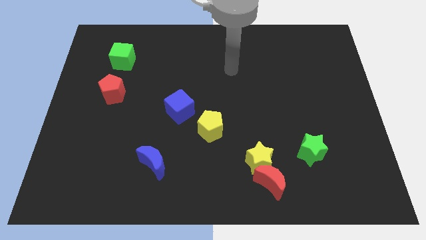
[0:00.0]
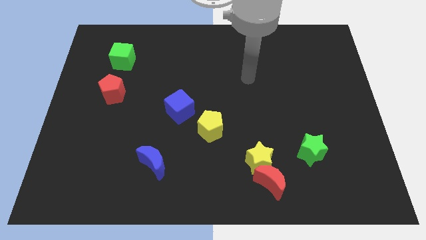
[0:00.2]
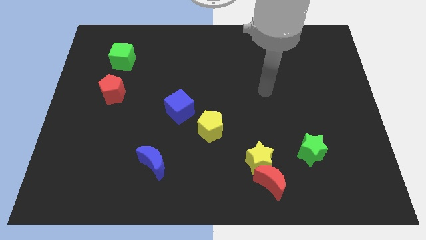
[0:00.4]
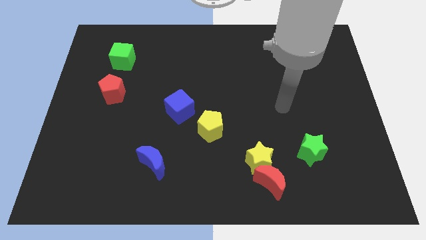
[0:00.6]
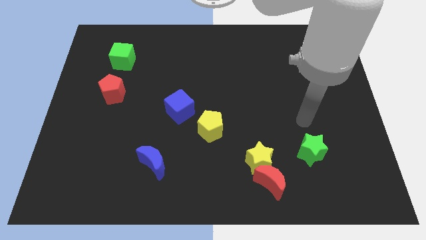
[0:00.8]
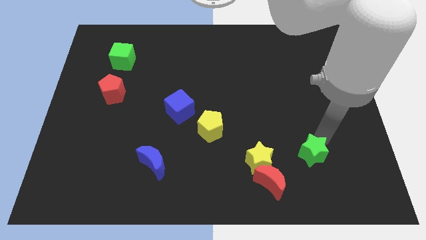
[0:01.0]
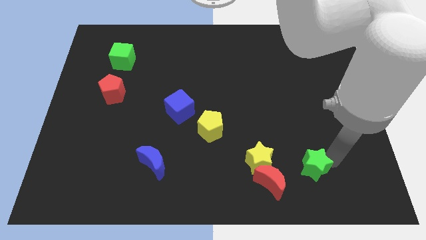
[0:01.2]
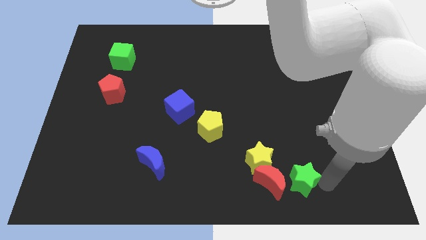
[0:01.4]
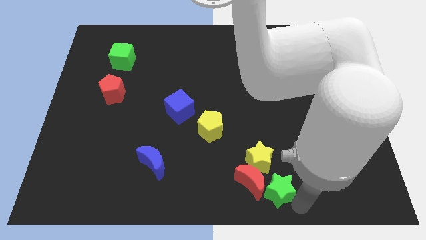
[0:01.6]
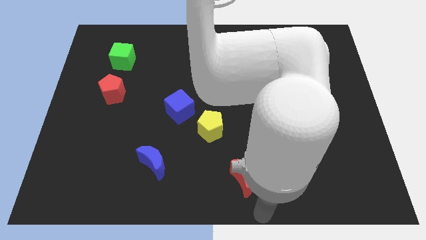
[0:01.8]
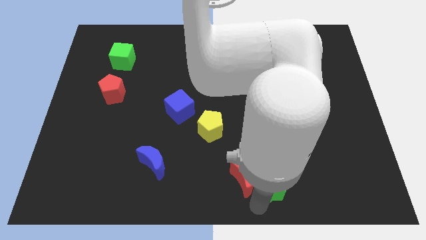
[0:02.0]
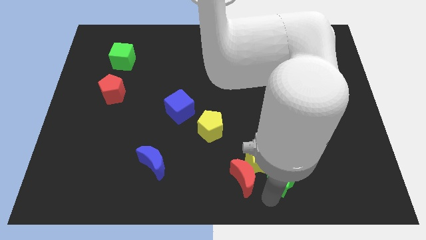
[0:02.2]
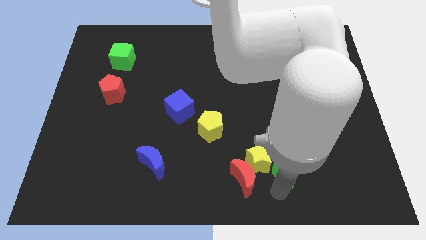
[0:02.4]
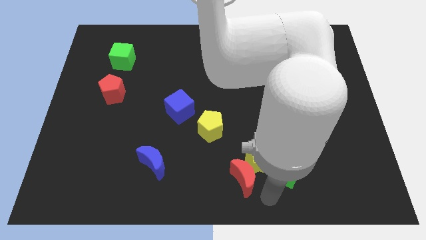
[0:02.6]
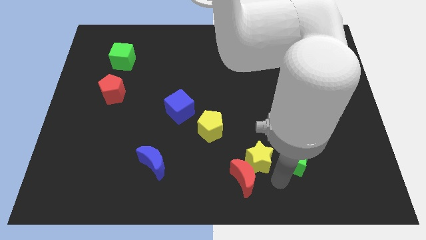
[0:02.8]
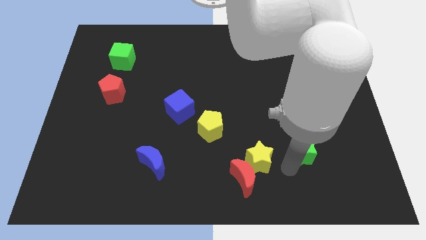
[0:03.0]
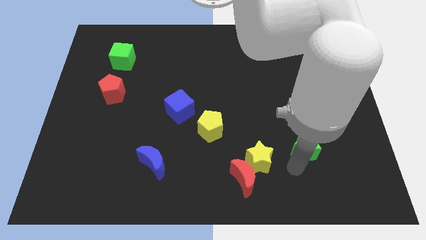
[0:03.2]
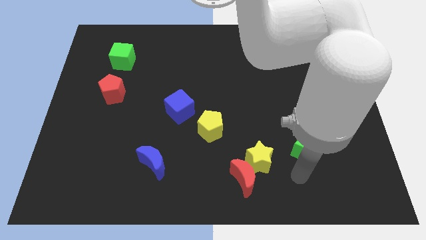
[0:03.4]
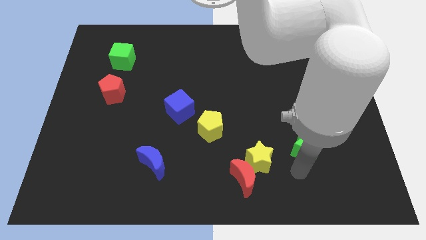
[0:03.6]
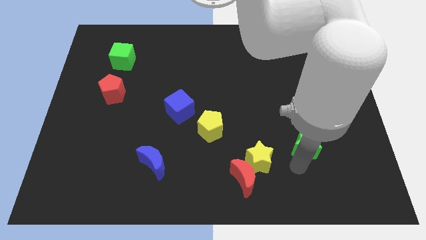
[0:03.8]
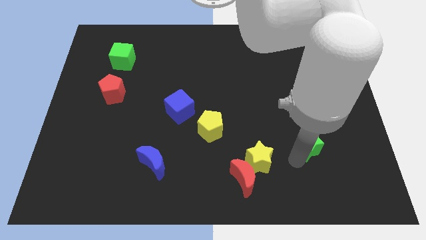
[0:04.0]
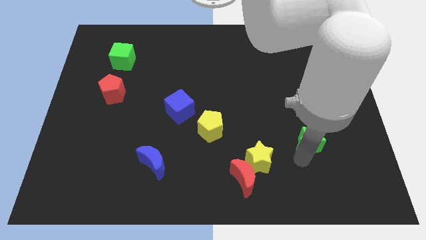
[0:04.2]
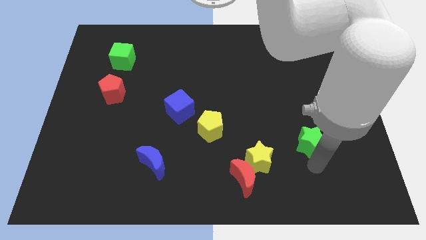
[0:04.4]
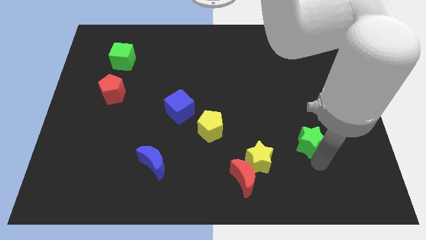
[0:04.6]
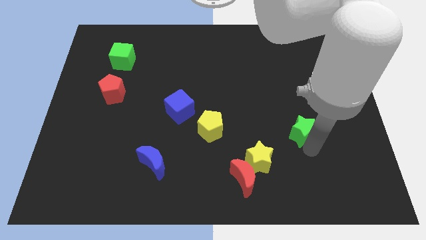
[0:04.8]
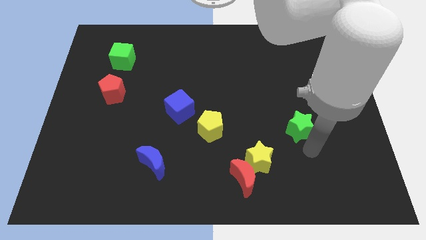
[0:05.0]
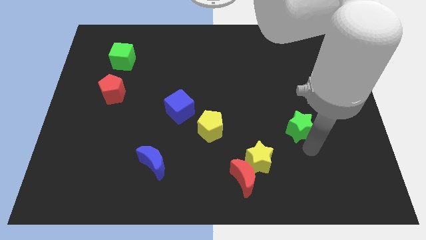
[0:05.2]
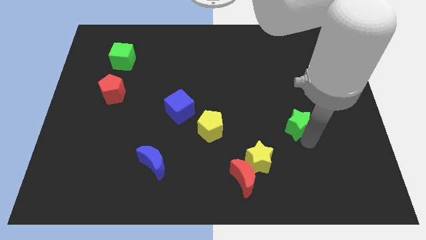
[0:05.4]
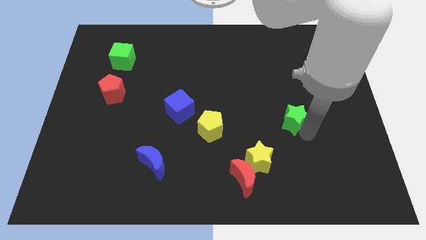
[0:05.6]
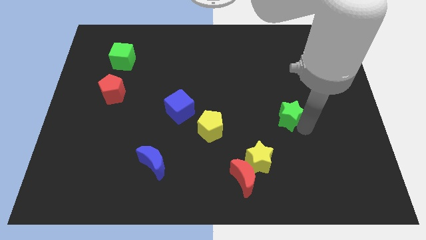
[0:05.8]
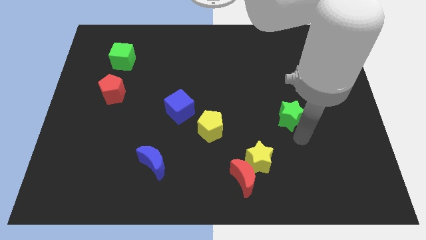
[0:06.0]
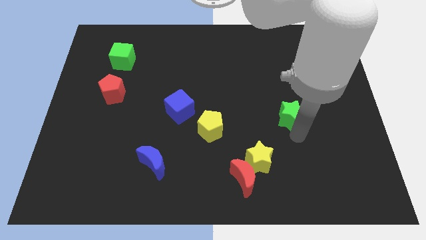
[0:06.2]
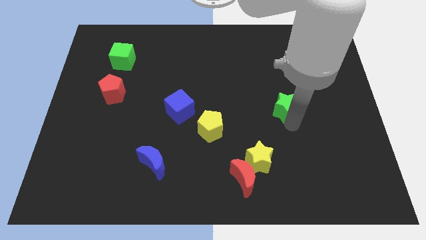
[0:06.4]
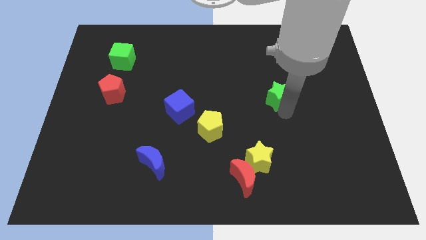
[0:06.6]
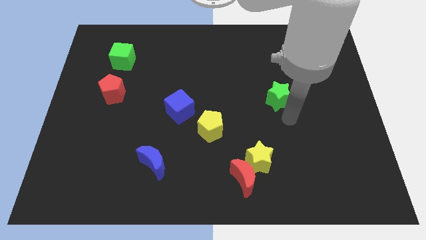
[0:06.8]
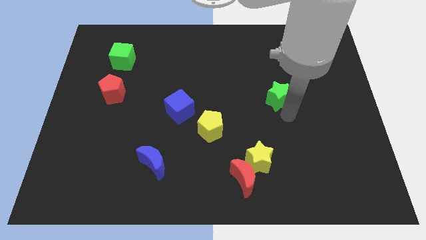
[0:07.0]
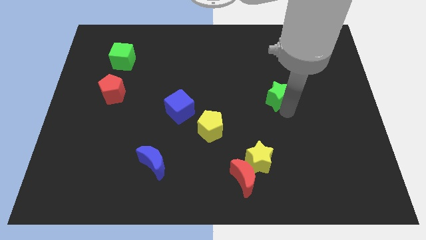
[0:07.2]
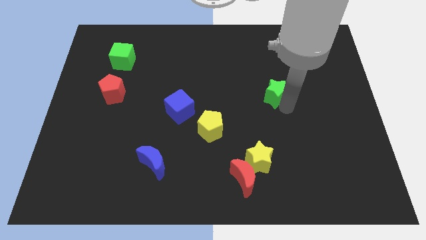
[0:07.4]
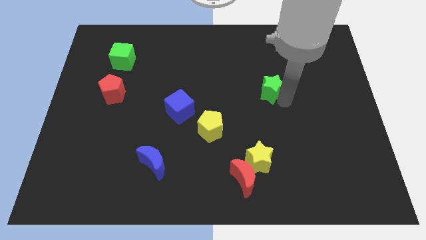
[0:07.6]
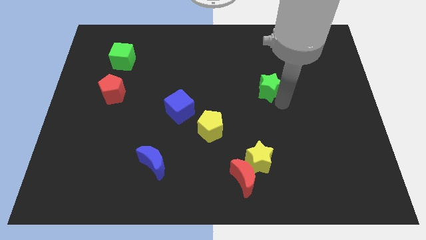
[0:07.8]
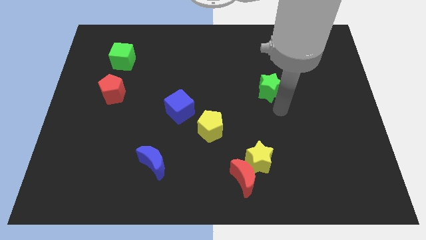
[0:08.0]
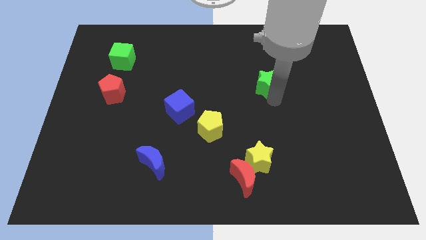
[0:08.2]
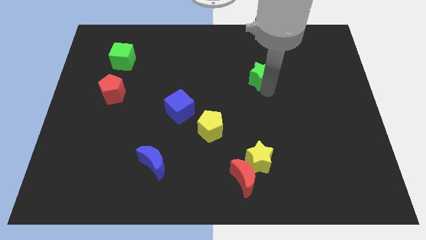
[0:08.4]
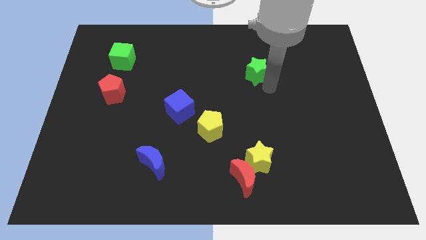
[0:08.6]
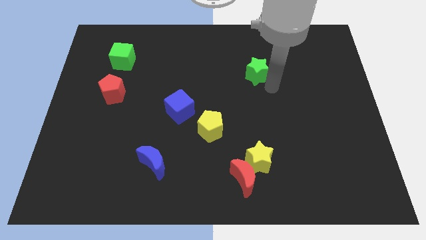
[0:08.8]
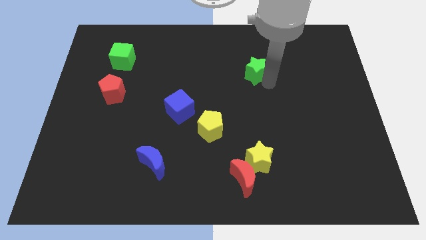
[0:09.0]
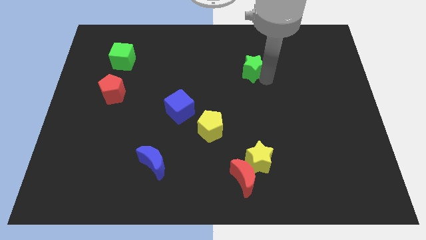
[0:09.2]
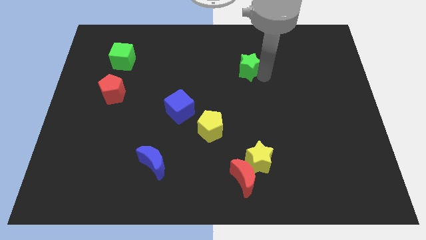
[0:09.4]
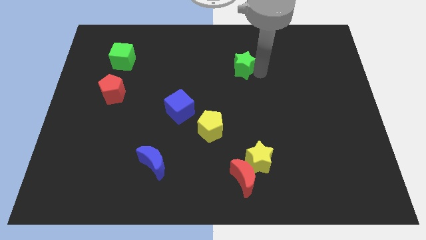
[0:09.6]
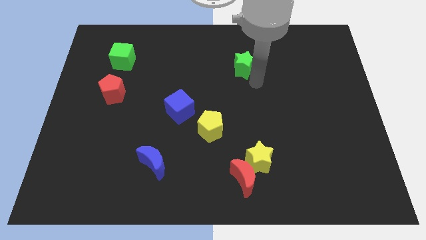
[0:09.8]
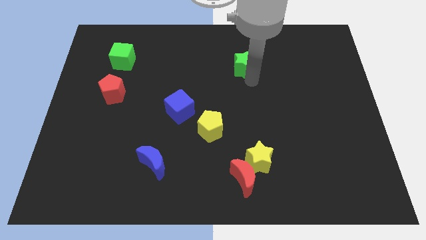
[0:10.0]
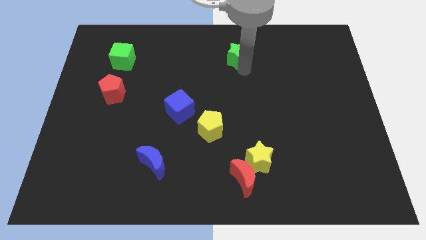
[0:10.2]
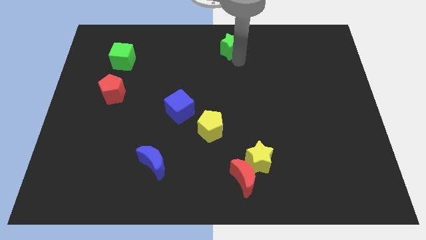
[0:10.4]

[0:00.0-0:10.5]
move the green star to the towards your base

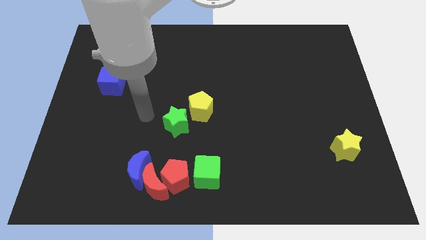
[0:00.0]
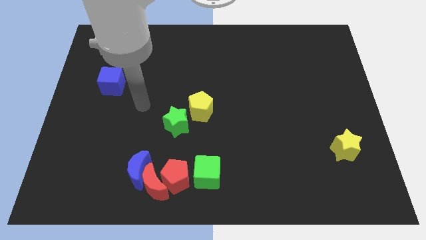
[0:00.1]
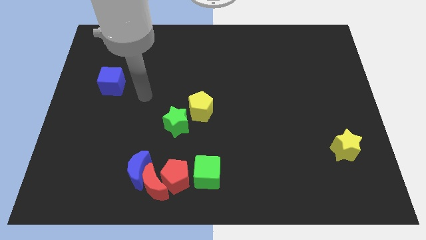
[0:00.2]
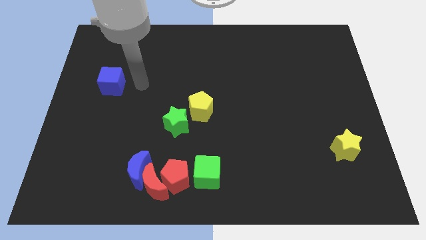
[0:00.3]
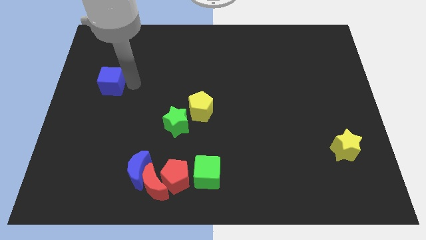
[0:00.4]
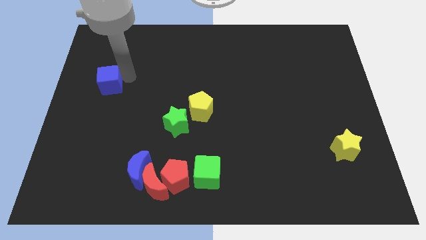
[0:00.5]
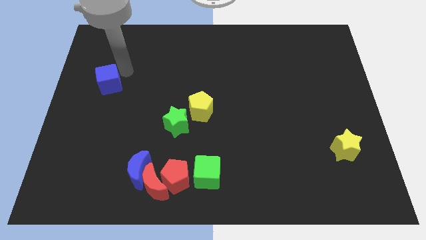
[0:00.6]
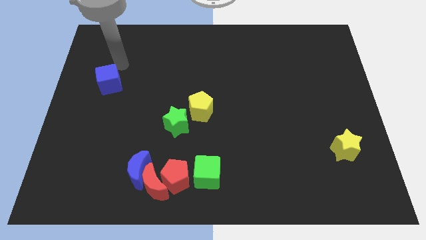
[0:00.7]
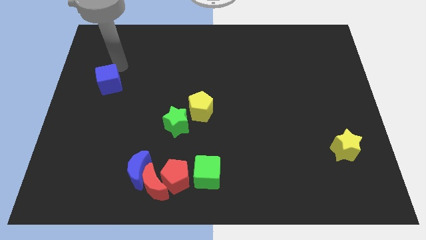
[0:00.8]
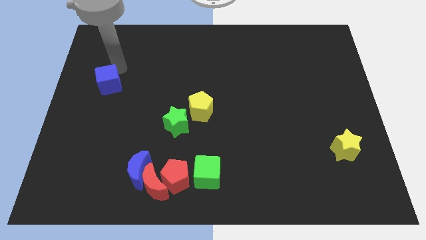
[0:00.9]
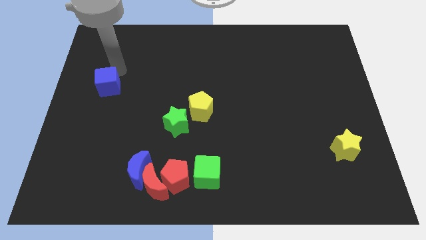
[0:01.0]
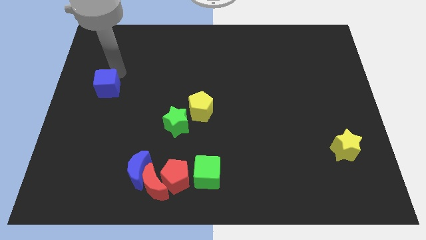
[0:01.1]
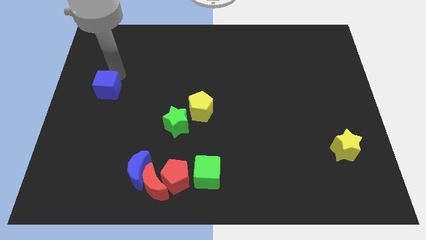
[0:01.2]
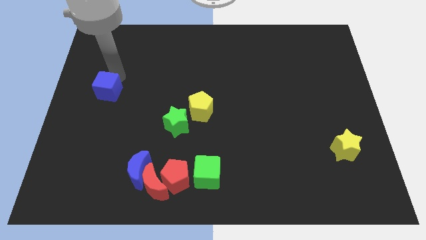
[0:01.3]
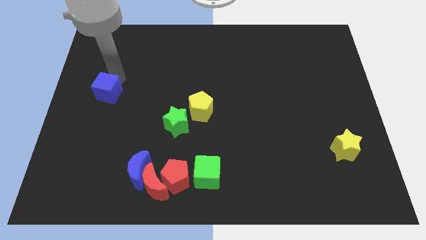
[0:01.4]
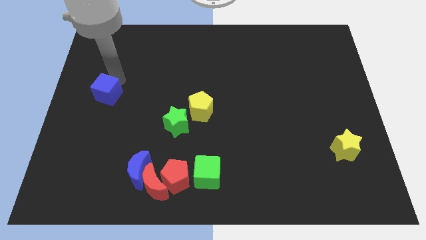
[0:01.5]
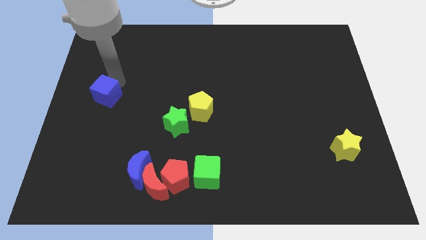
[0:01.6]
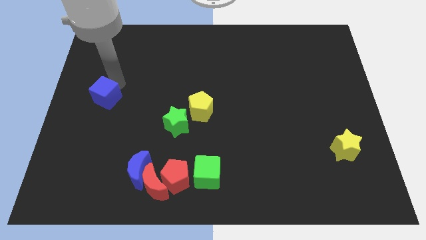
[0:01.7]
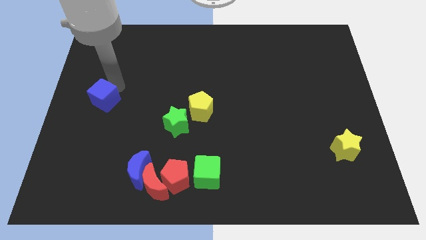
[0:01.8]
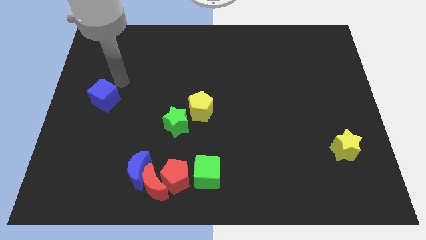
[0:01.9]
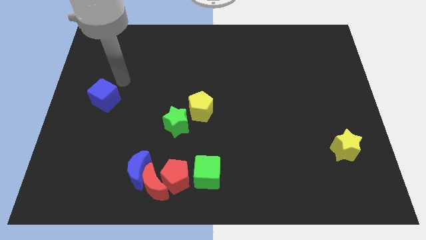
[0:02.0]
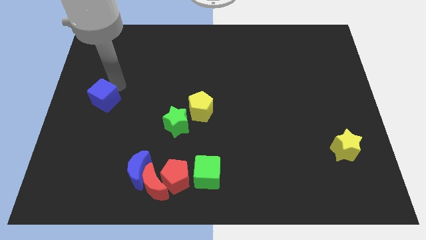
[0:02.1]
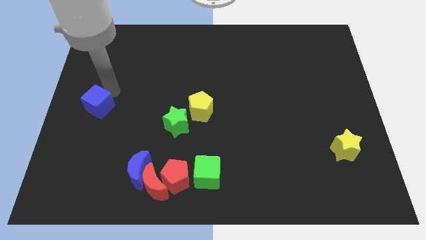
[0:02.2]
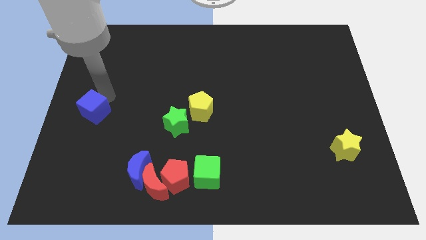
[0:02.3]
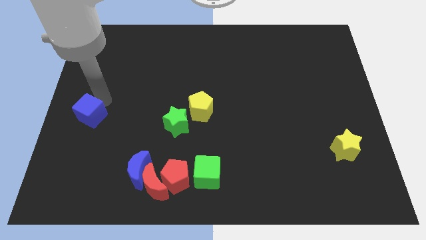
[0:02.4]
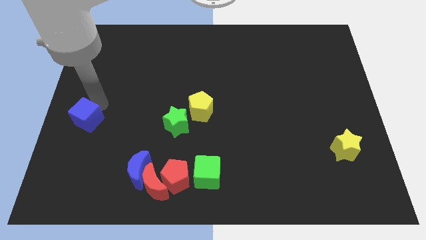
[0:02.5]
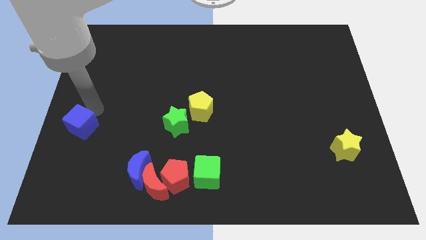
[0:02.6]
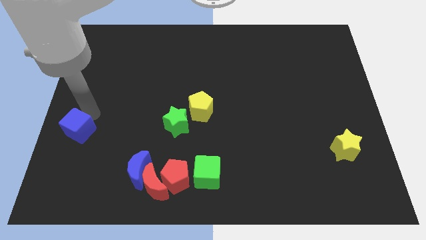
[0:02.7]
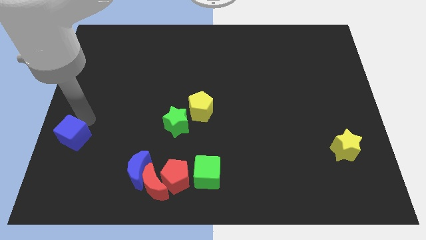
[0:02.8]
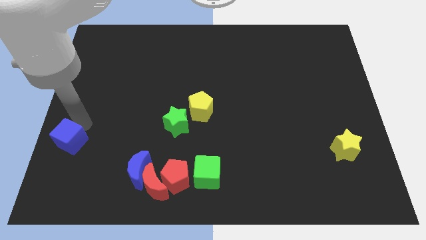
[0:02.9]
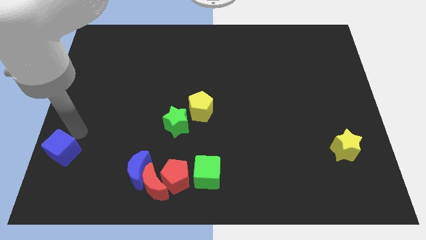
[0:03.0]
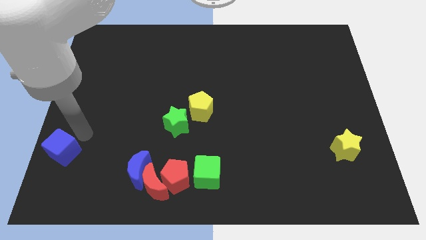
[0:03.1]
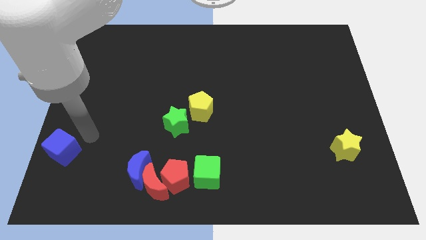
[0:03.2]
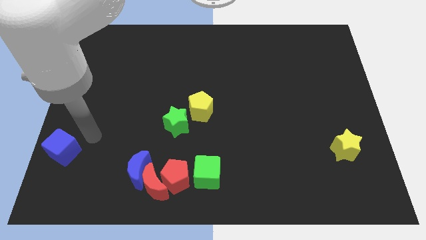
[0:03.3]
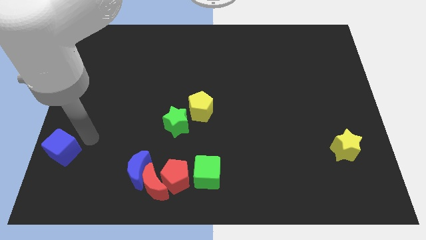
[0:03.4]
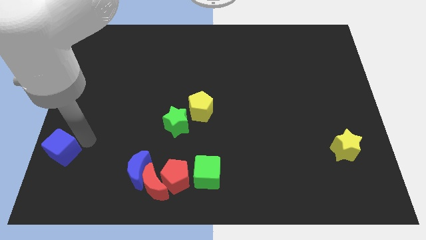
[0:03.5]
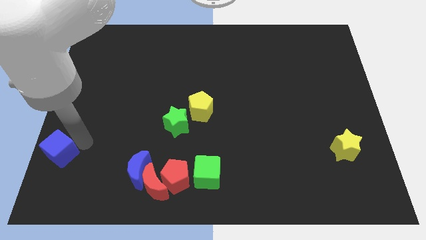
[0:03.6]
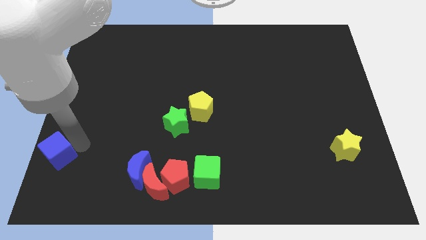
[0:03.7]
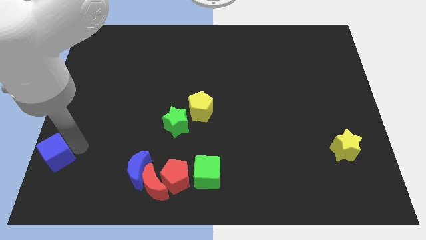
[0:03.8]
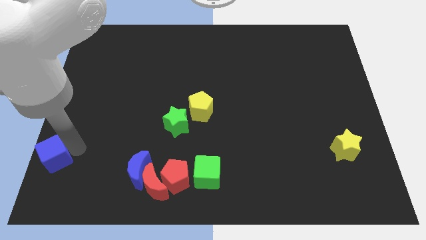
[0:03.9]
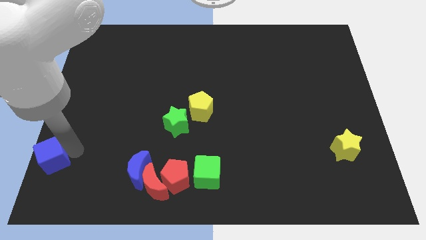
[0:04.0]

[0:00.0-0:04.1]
slide the blue cube to the bottom left corner
